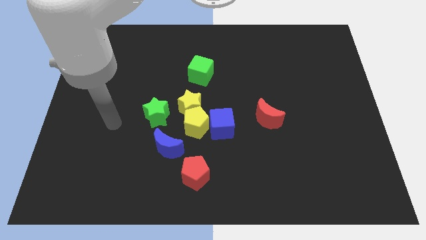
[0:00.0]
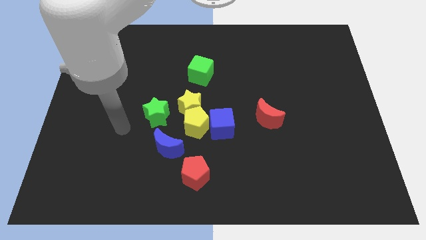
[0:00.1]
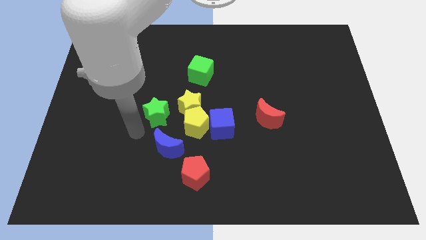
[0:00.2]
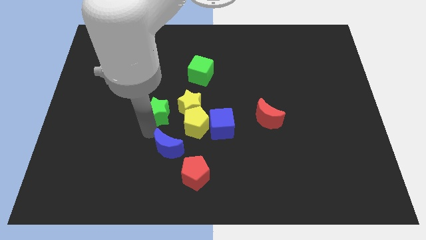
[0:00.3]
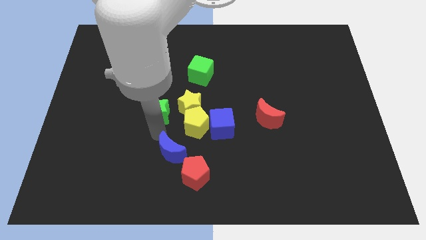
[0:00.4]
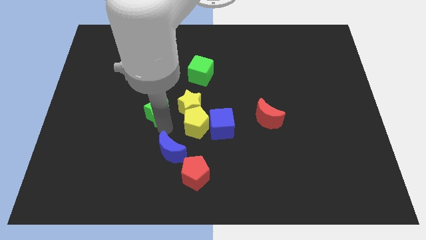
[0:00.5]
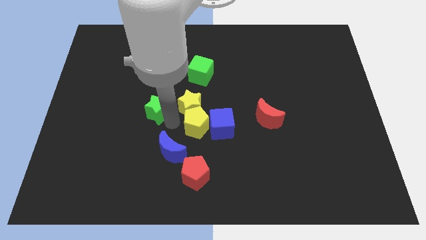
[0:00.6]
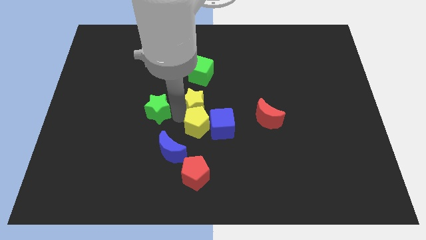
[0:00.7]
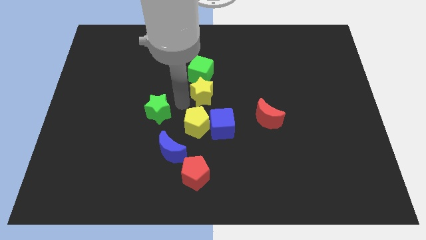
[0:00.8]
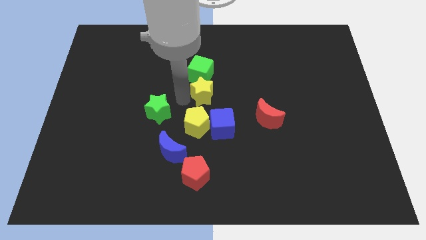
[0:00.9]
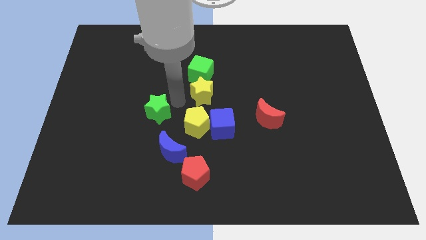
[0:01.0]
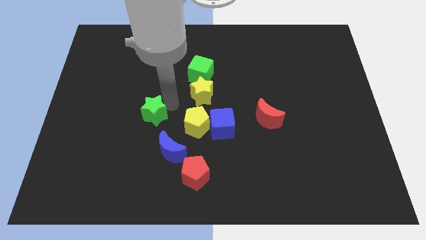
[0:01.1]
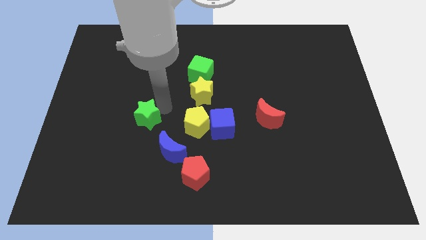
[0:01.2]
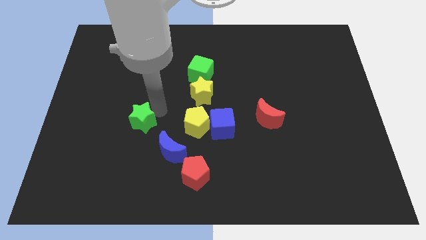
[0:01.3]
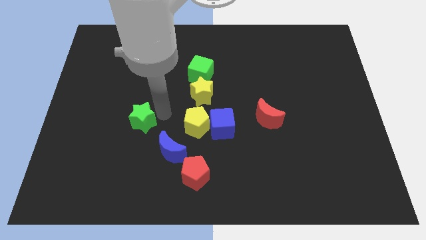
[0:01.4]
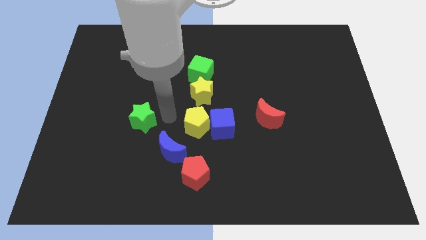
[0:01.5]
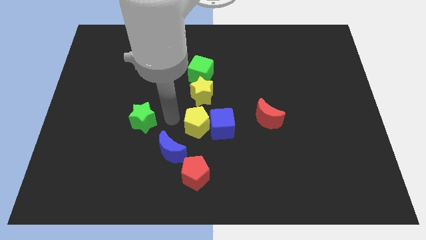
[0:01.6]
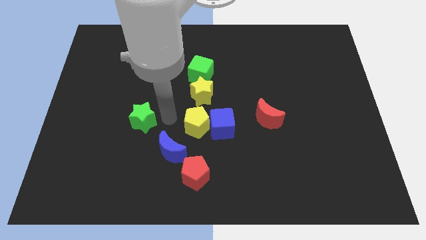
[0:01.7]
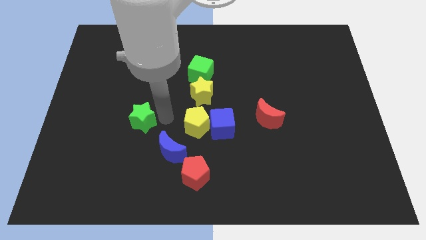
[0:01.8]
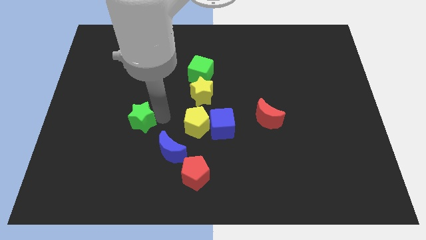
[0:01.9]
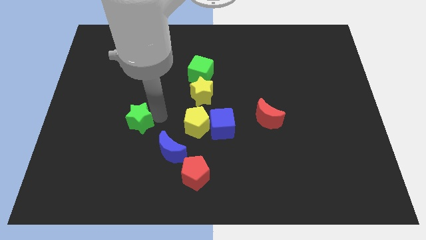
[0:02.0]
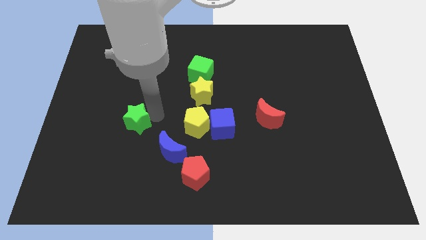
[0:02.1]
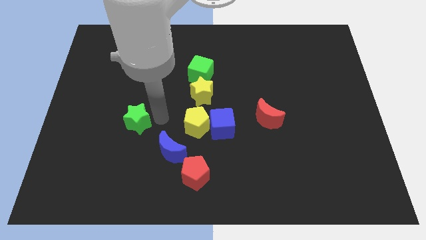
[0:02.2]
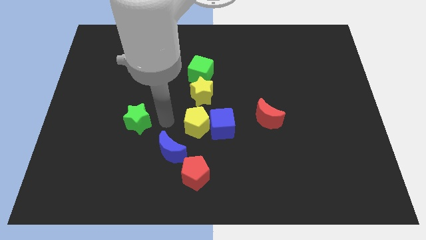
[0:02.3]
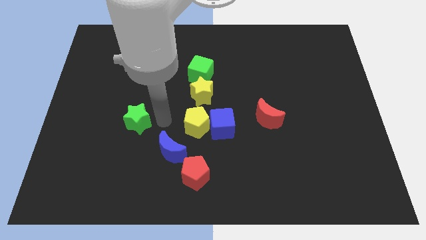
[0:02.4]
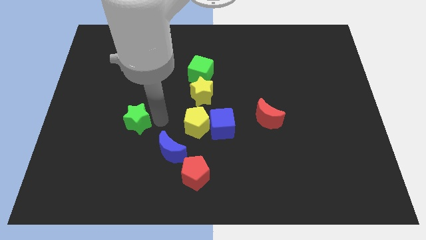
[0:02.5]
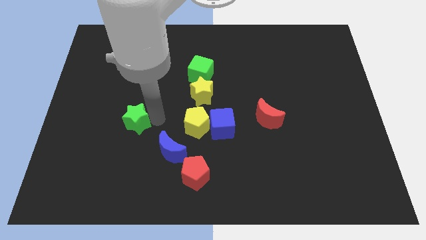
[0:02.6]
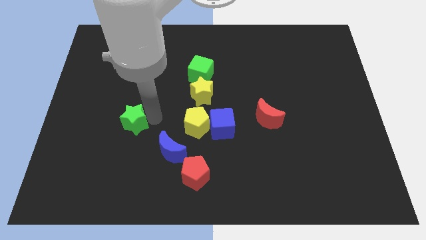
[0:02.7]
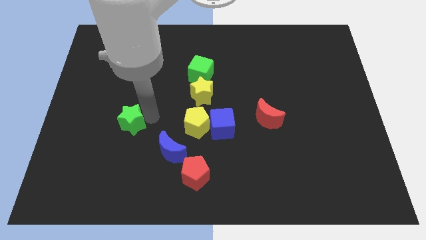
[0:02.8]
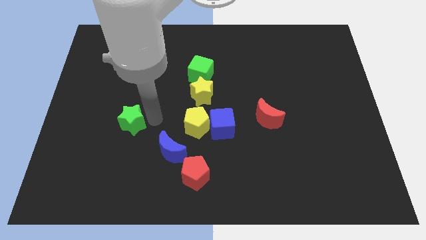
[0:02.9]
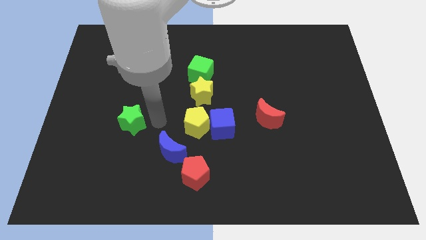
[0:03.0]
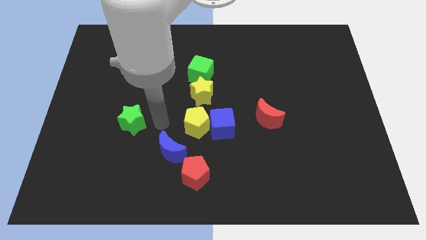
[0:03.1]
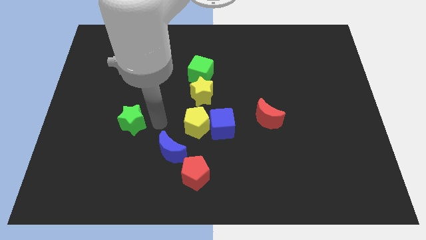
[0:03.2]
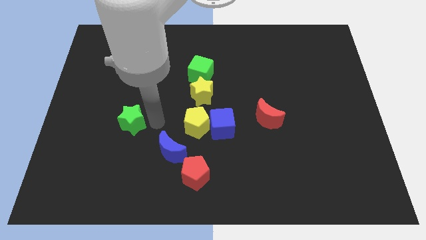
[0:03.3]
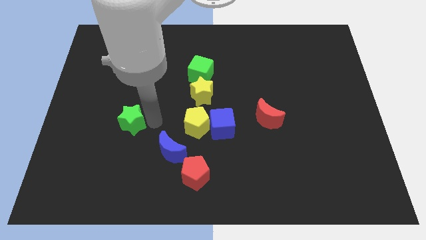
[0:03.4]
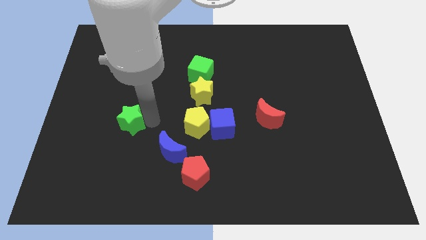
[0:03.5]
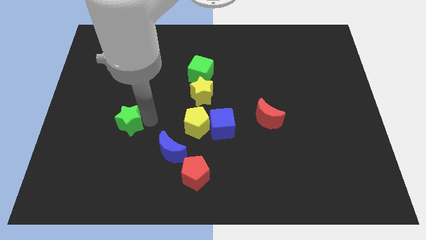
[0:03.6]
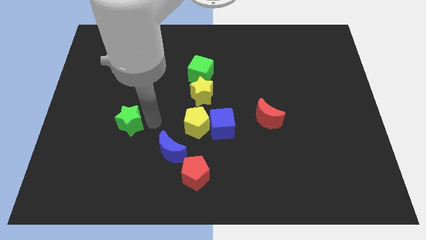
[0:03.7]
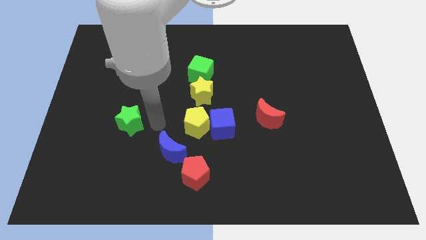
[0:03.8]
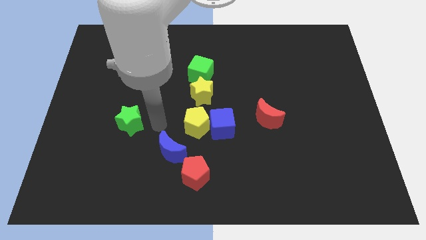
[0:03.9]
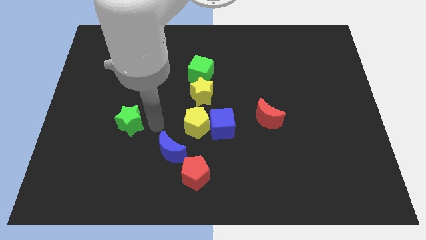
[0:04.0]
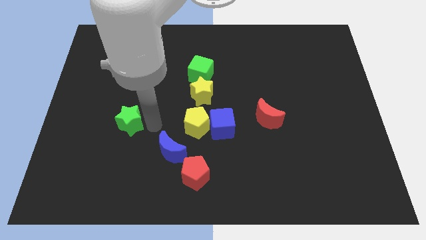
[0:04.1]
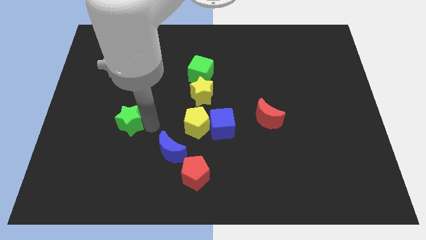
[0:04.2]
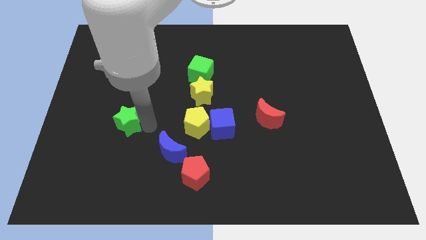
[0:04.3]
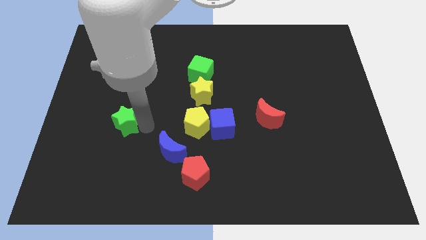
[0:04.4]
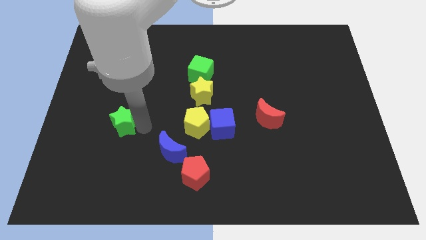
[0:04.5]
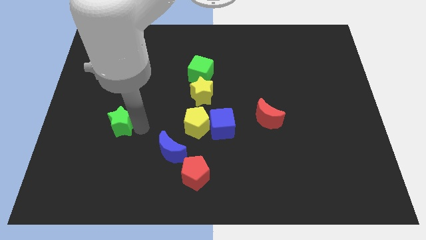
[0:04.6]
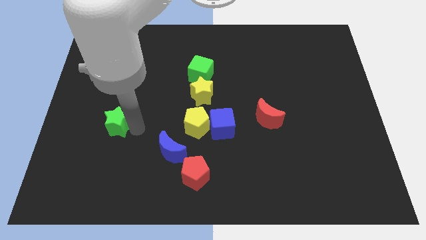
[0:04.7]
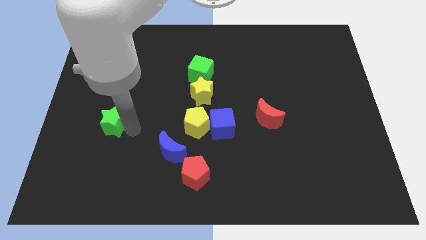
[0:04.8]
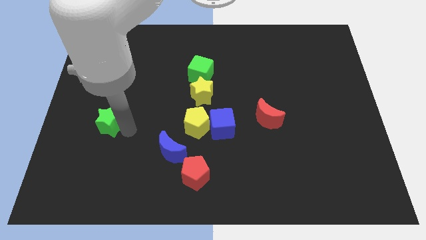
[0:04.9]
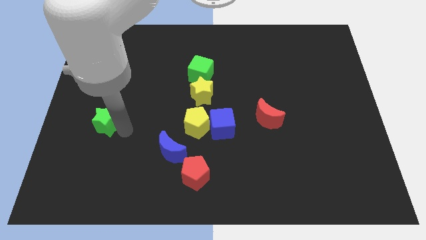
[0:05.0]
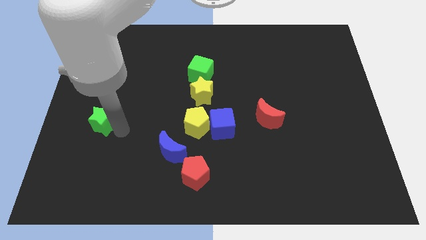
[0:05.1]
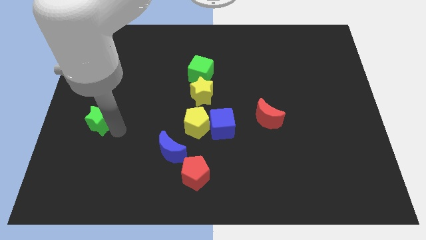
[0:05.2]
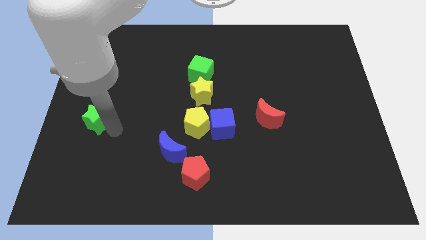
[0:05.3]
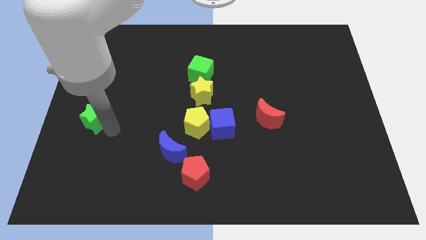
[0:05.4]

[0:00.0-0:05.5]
put the green star to the left side
